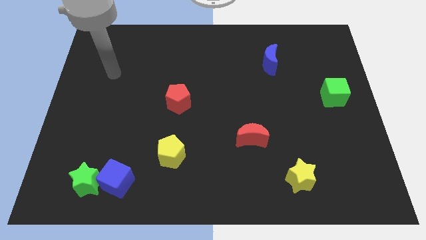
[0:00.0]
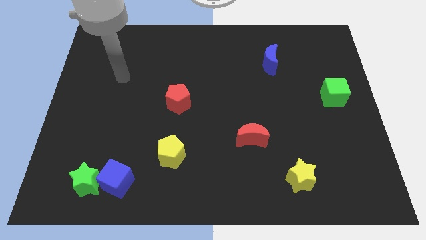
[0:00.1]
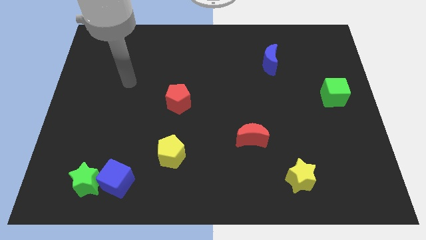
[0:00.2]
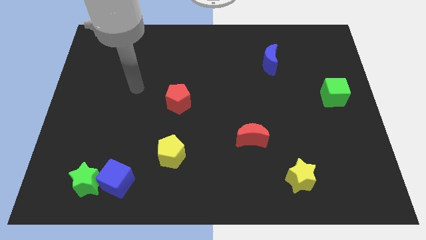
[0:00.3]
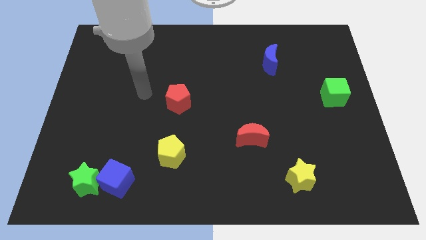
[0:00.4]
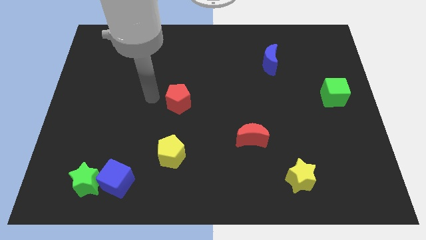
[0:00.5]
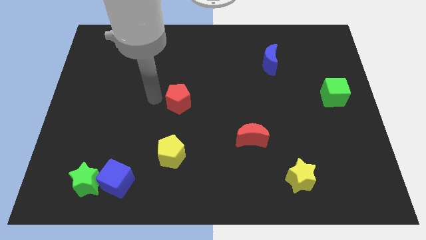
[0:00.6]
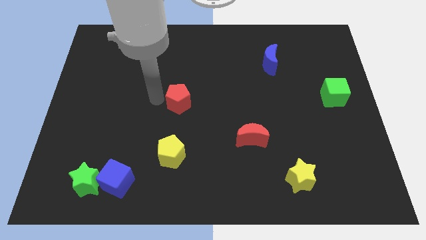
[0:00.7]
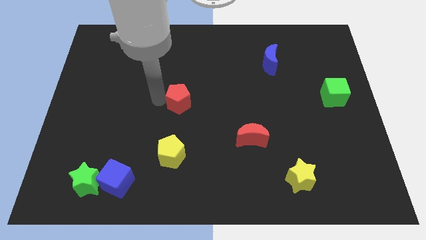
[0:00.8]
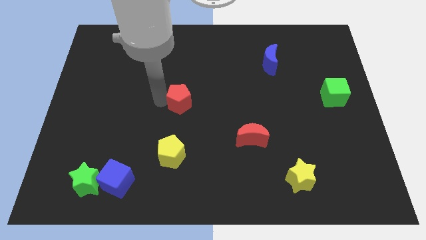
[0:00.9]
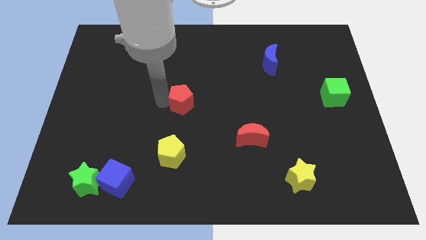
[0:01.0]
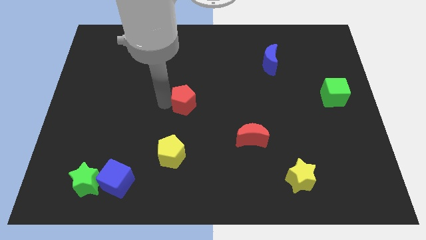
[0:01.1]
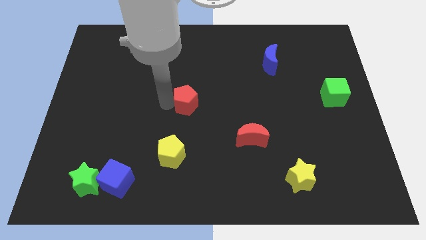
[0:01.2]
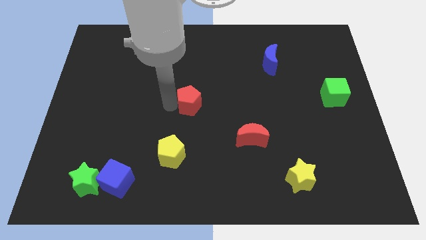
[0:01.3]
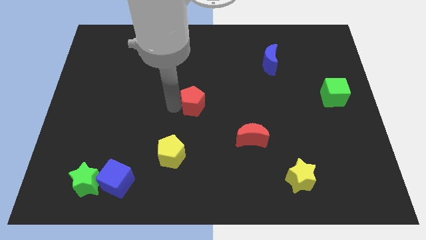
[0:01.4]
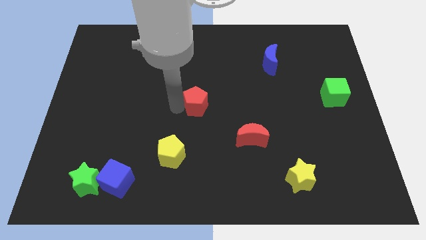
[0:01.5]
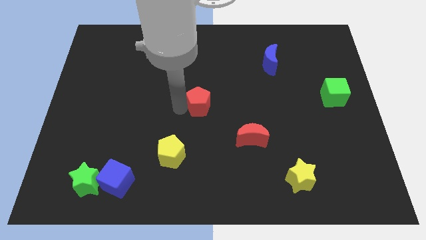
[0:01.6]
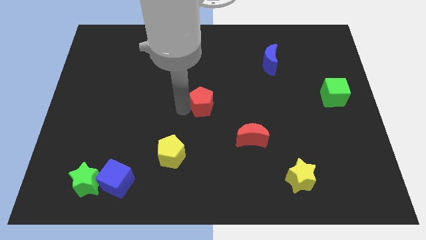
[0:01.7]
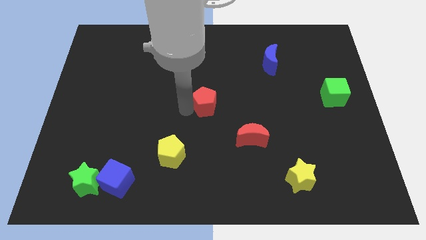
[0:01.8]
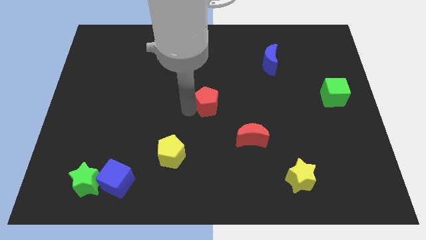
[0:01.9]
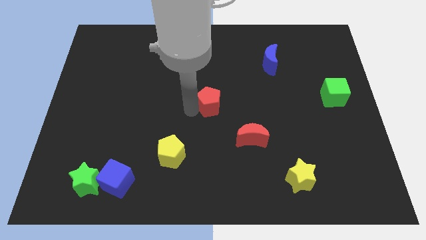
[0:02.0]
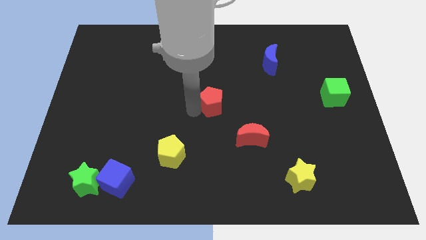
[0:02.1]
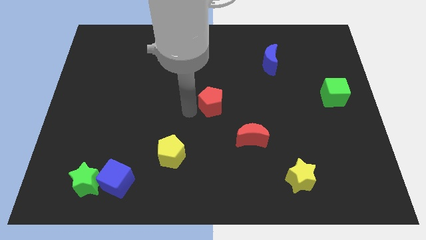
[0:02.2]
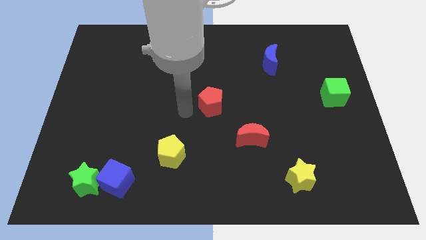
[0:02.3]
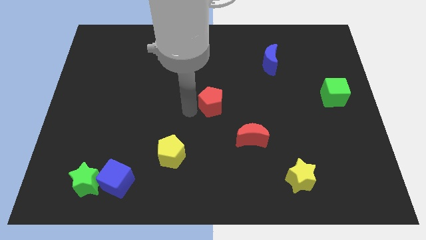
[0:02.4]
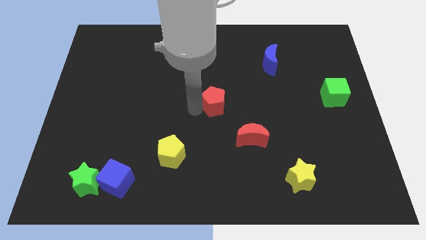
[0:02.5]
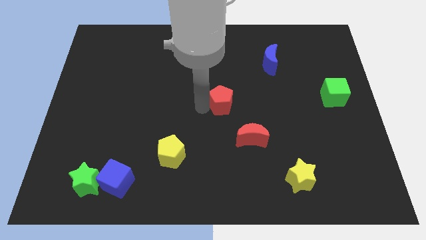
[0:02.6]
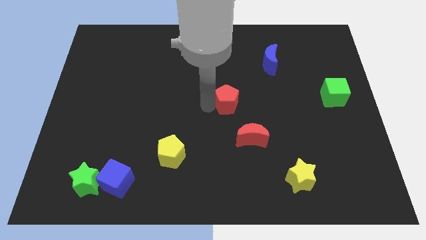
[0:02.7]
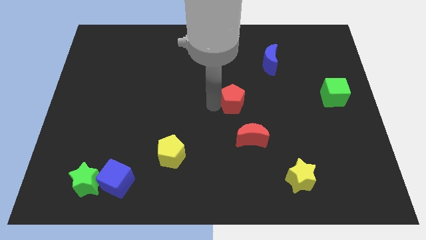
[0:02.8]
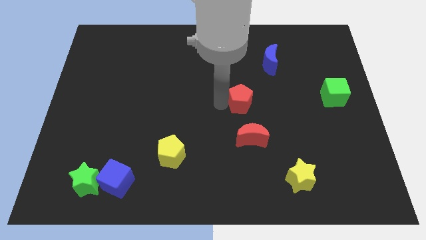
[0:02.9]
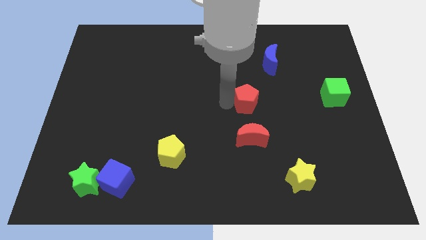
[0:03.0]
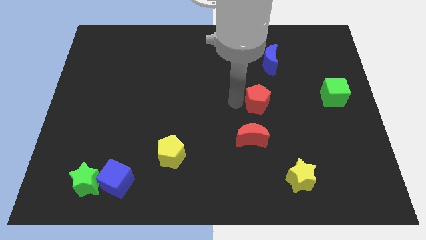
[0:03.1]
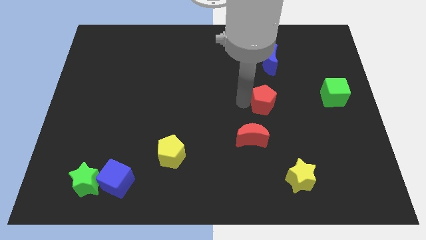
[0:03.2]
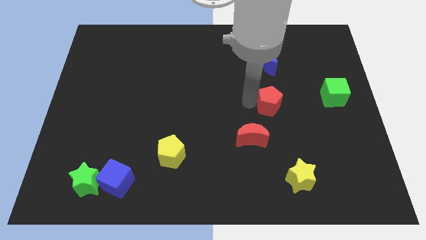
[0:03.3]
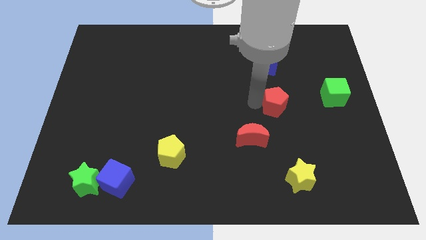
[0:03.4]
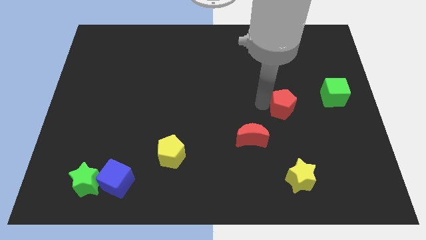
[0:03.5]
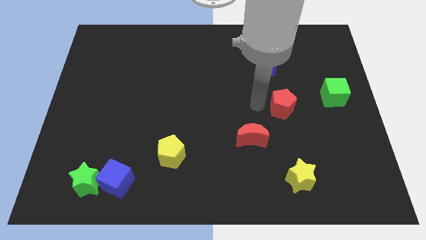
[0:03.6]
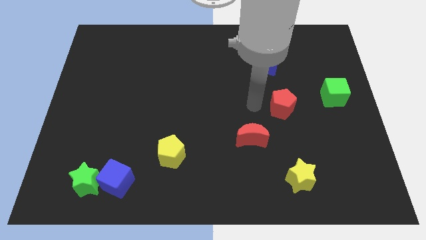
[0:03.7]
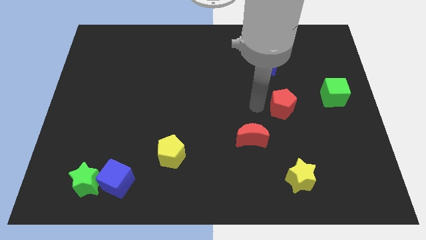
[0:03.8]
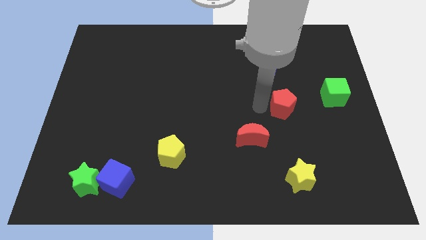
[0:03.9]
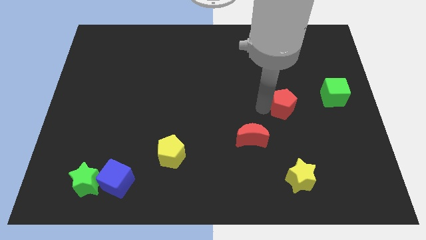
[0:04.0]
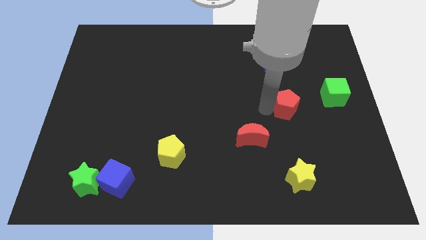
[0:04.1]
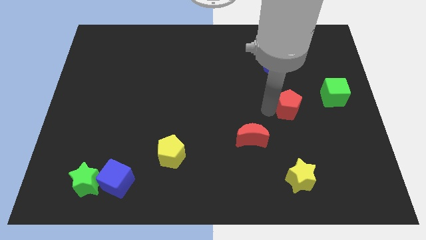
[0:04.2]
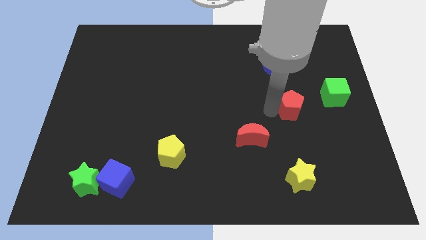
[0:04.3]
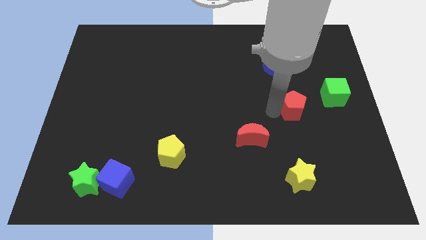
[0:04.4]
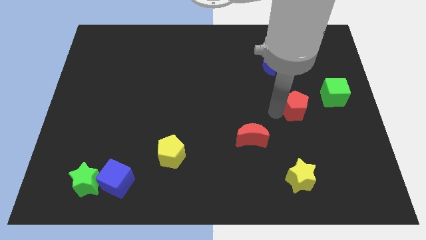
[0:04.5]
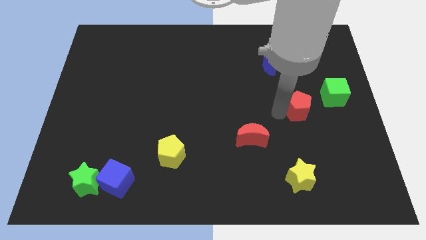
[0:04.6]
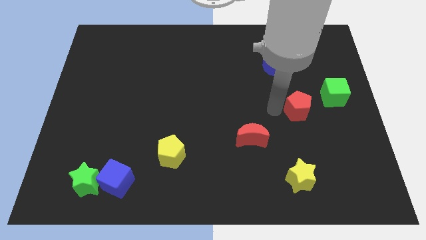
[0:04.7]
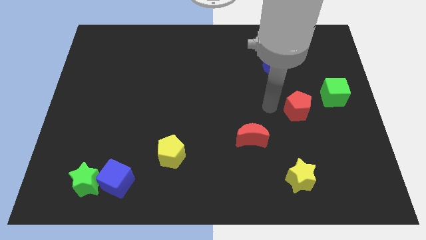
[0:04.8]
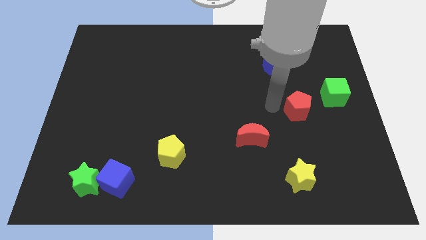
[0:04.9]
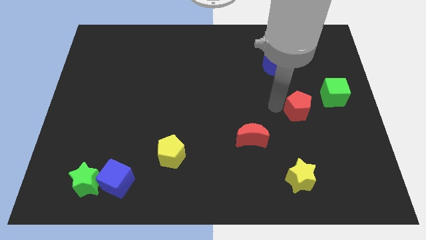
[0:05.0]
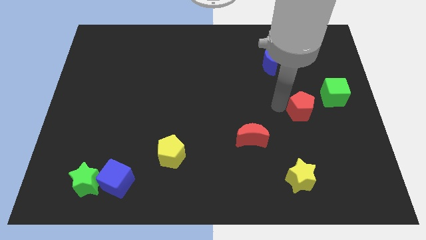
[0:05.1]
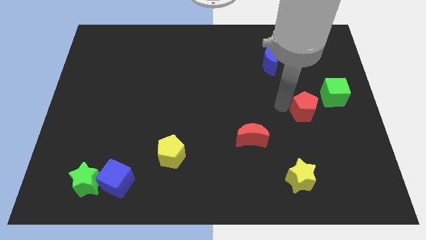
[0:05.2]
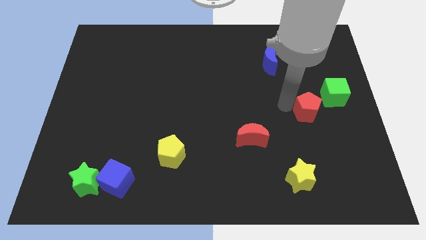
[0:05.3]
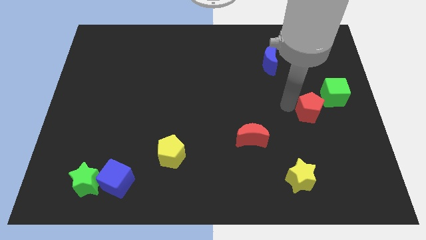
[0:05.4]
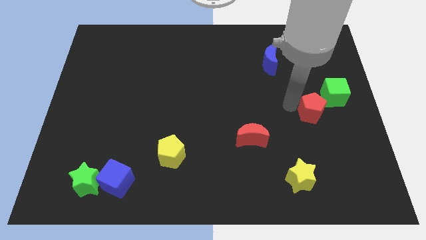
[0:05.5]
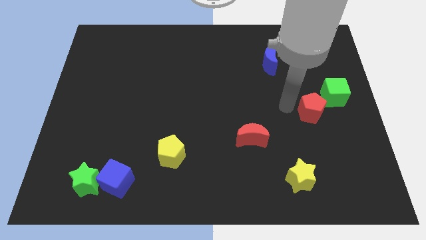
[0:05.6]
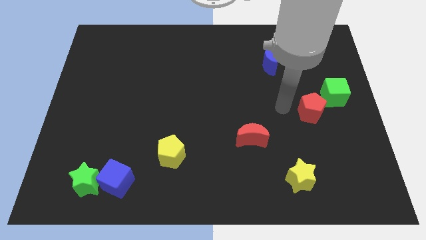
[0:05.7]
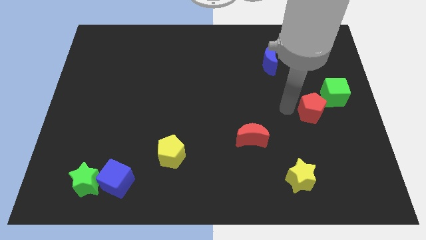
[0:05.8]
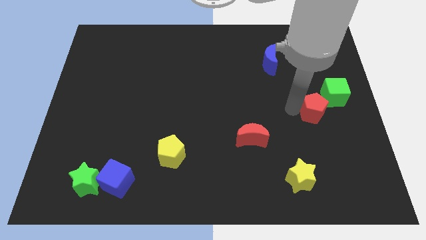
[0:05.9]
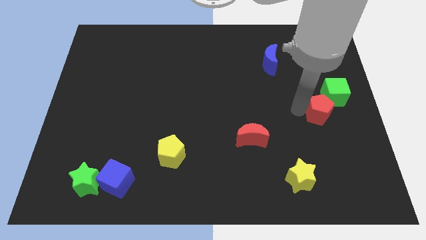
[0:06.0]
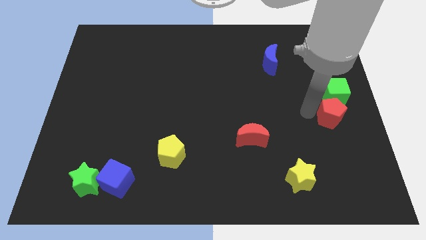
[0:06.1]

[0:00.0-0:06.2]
slide the red pentagon to the center right

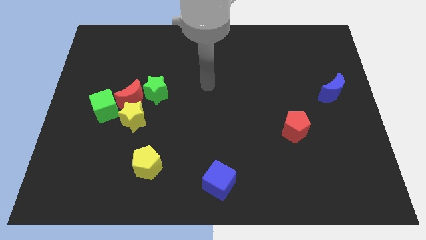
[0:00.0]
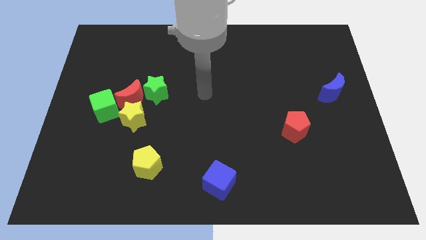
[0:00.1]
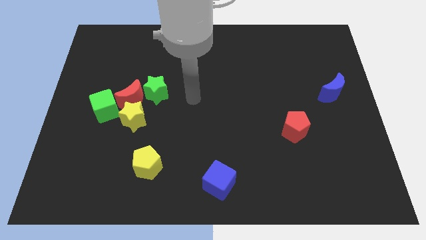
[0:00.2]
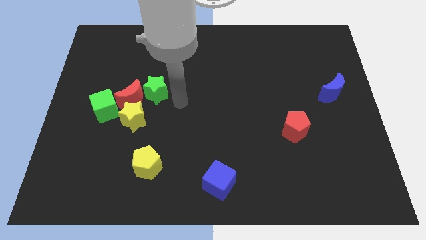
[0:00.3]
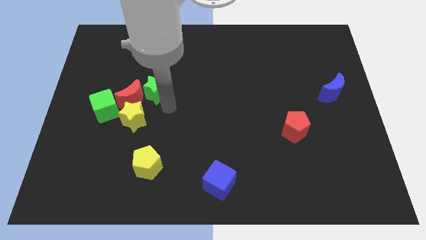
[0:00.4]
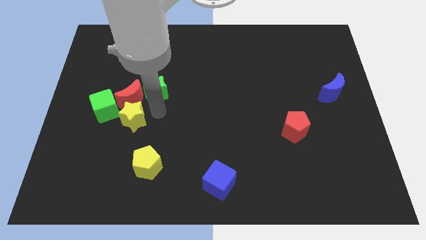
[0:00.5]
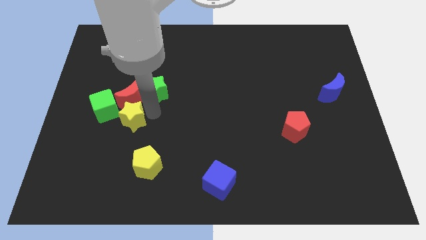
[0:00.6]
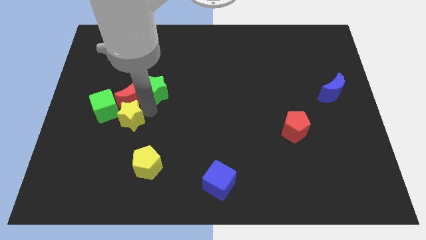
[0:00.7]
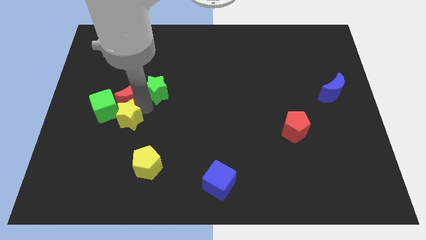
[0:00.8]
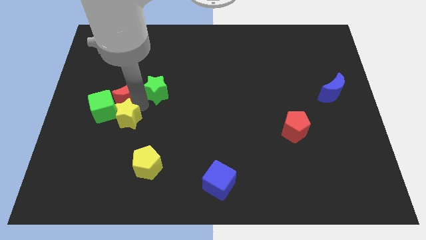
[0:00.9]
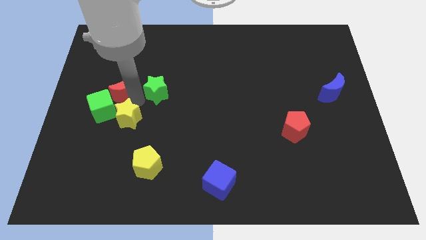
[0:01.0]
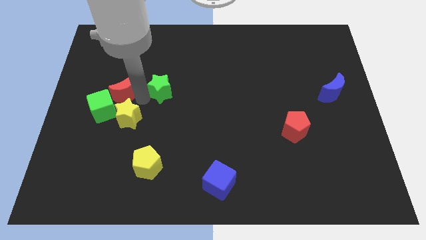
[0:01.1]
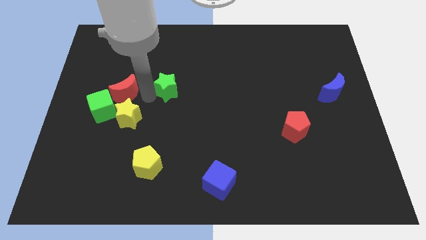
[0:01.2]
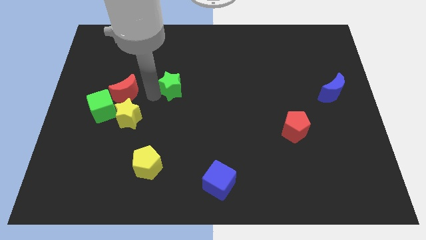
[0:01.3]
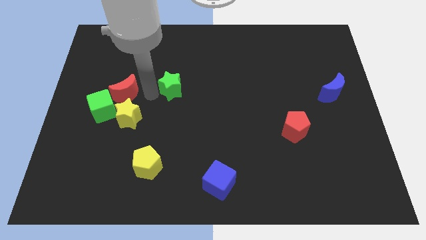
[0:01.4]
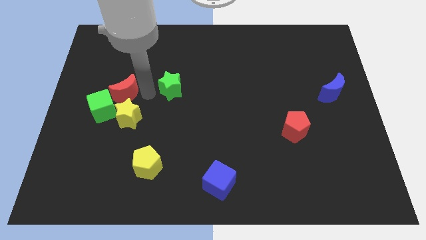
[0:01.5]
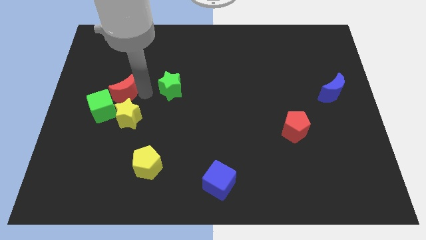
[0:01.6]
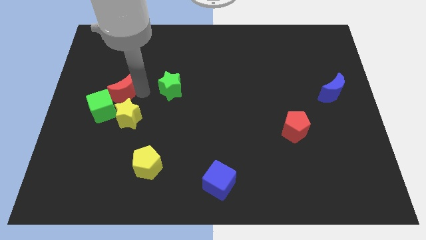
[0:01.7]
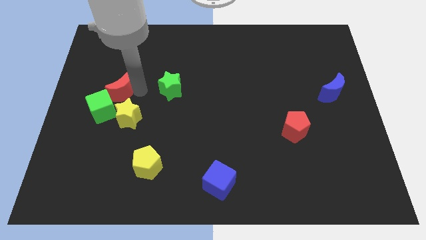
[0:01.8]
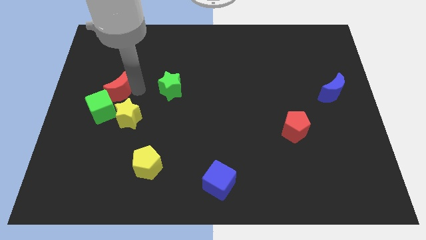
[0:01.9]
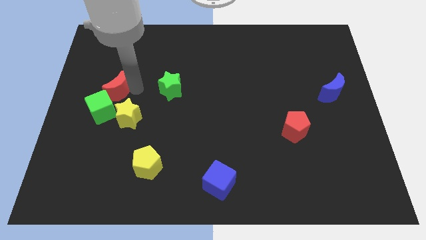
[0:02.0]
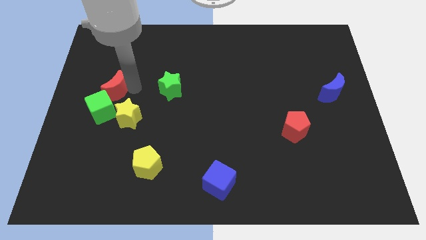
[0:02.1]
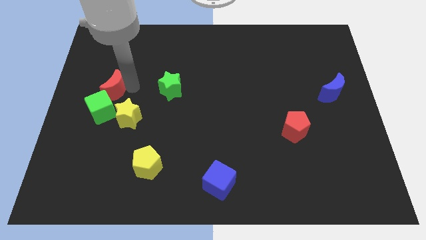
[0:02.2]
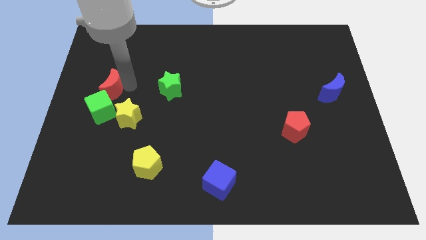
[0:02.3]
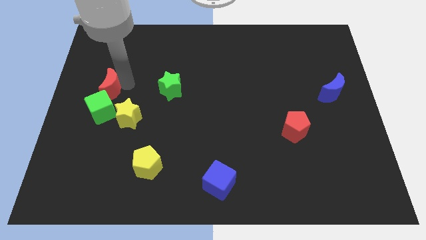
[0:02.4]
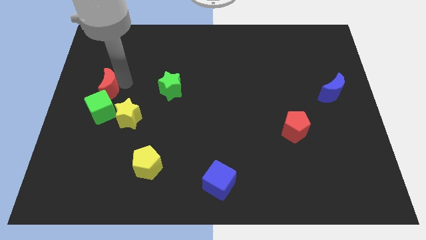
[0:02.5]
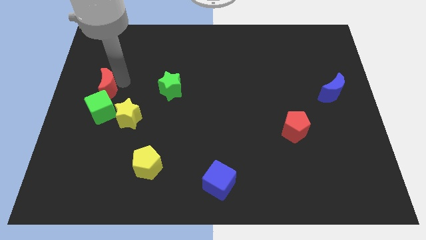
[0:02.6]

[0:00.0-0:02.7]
put the red moon to the left side
